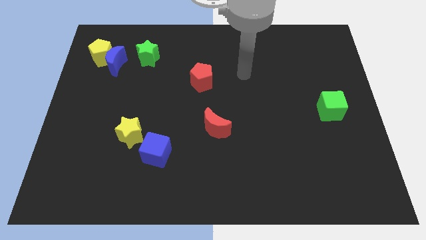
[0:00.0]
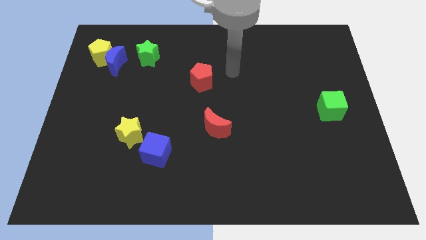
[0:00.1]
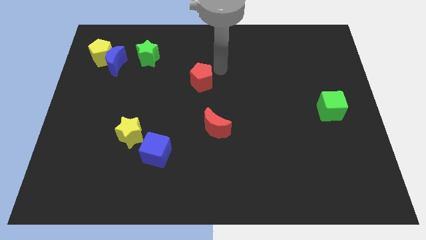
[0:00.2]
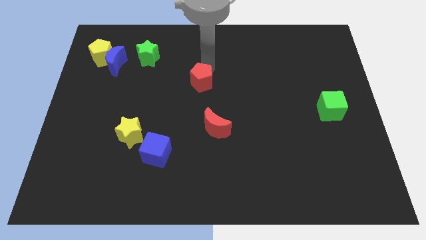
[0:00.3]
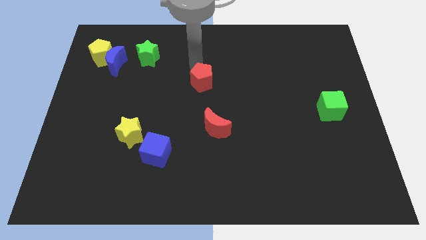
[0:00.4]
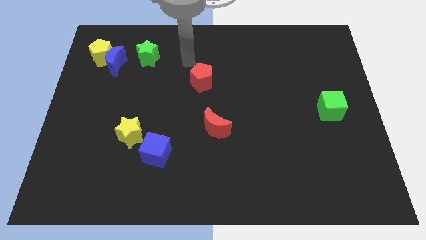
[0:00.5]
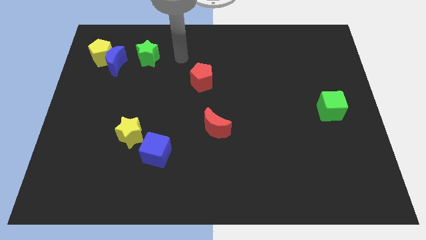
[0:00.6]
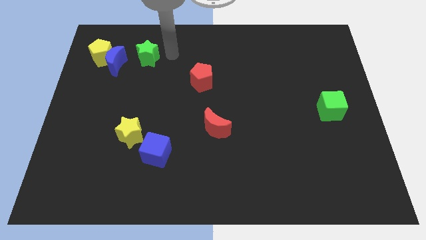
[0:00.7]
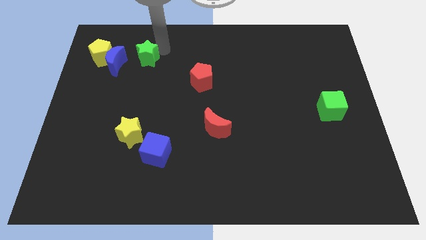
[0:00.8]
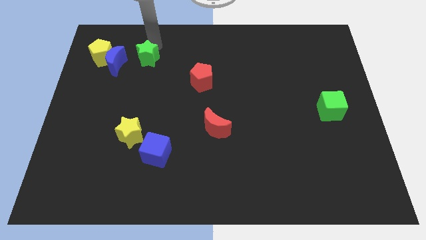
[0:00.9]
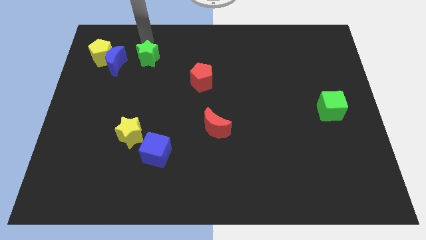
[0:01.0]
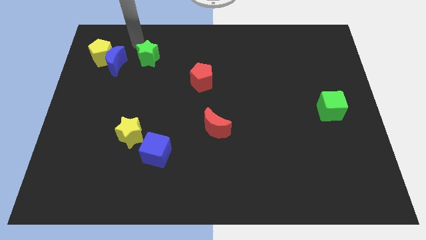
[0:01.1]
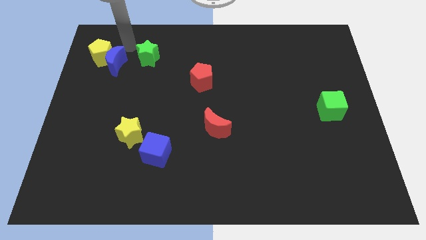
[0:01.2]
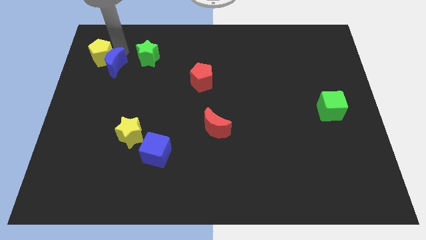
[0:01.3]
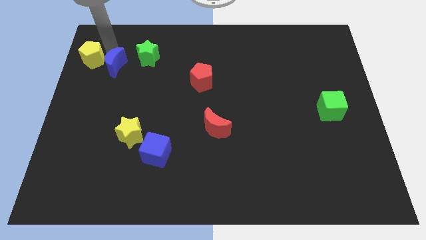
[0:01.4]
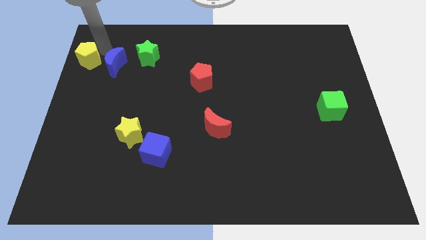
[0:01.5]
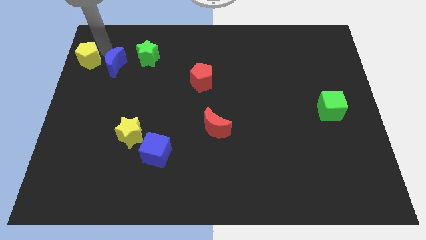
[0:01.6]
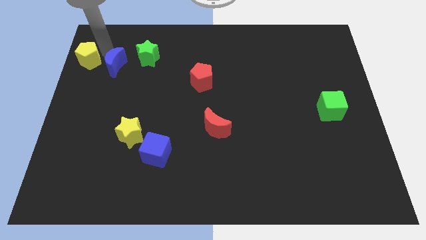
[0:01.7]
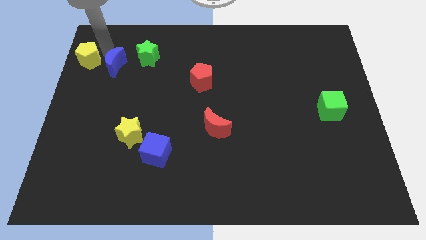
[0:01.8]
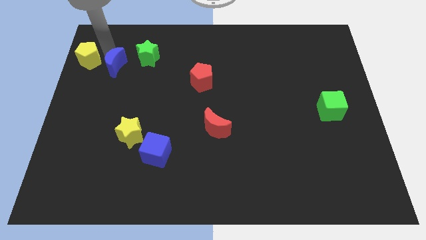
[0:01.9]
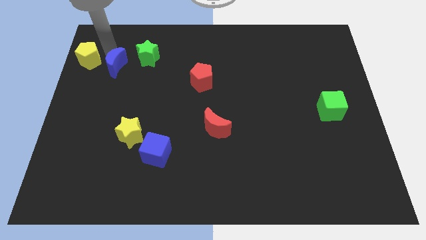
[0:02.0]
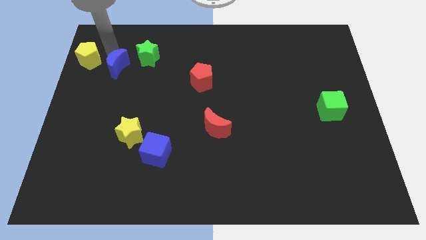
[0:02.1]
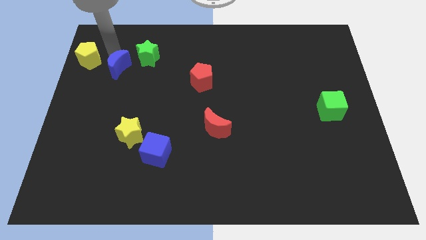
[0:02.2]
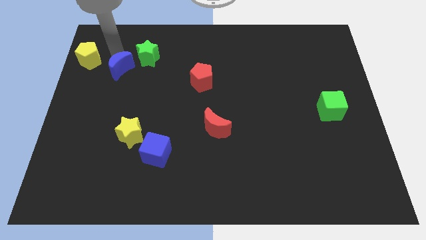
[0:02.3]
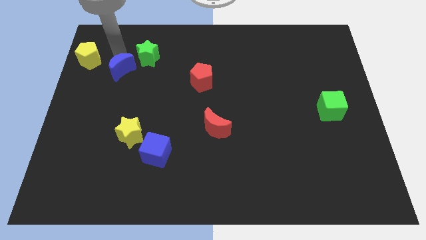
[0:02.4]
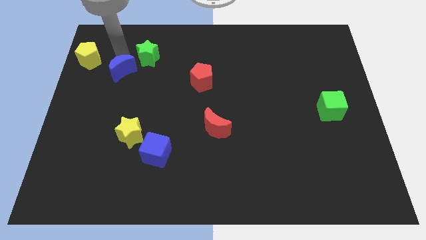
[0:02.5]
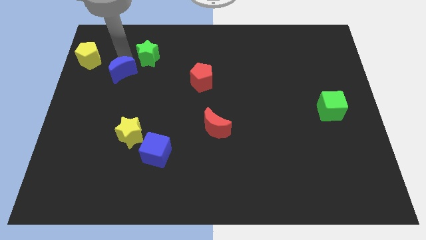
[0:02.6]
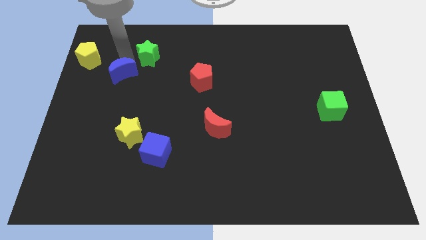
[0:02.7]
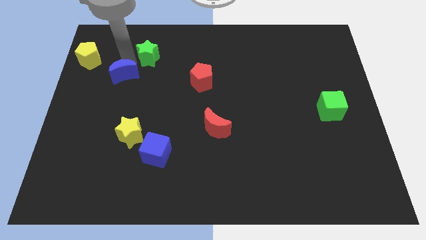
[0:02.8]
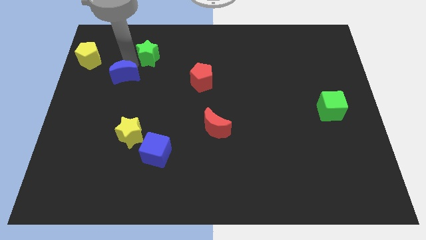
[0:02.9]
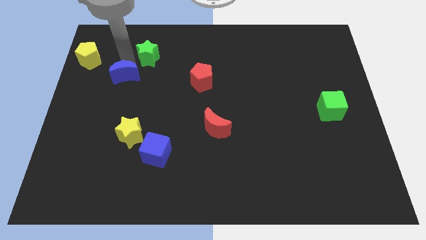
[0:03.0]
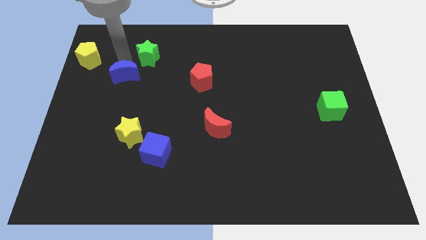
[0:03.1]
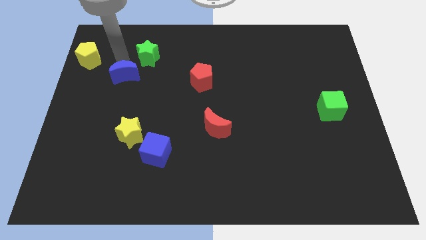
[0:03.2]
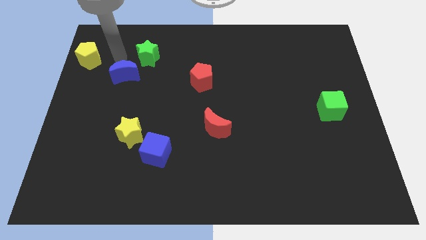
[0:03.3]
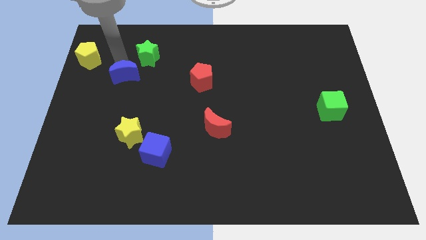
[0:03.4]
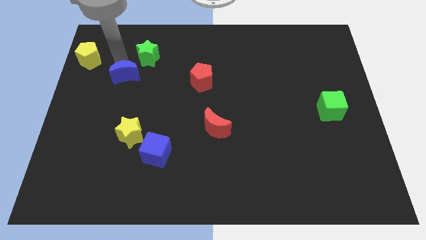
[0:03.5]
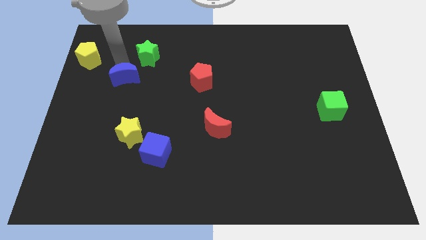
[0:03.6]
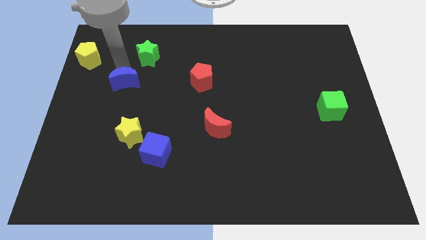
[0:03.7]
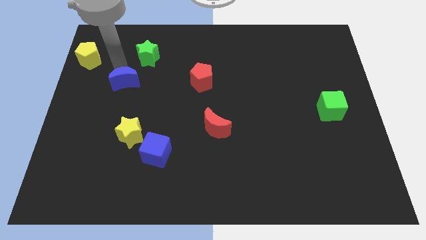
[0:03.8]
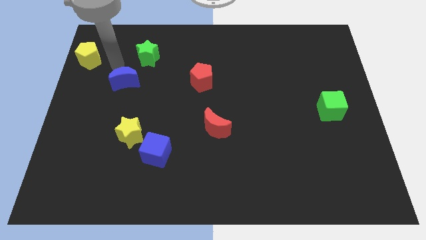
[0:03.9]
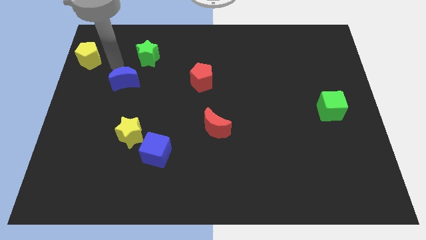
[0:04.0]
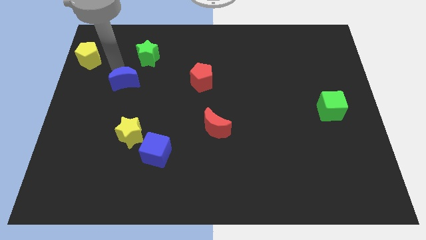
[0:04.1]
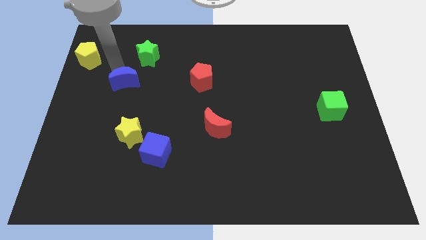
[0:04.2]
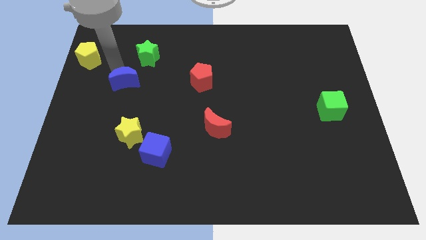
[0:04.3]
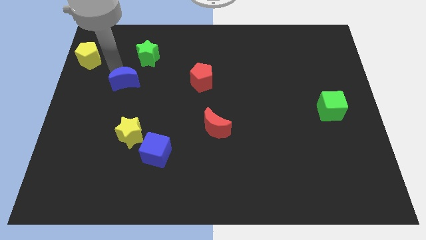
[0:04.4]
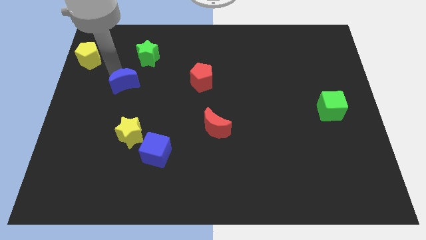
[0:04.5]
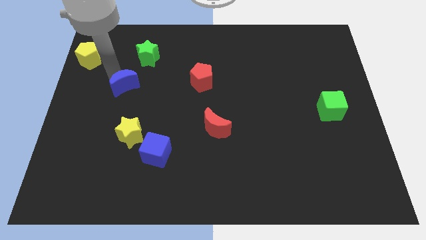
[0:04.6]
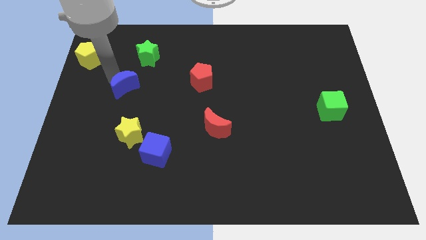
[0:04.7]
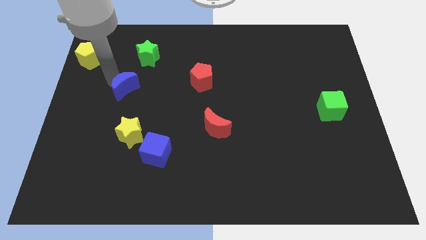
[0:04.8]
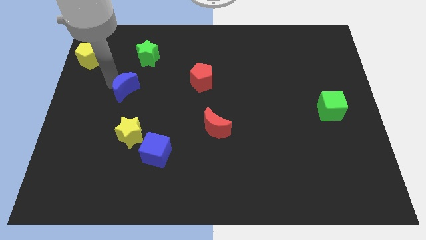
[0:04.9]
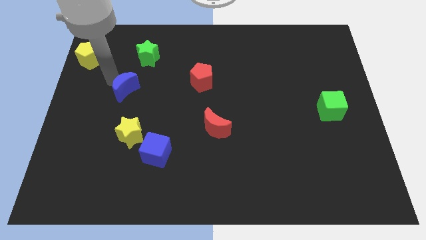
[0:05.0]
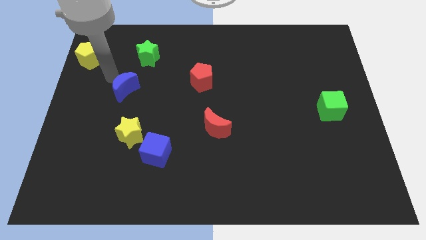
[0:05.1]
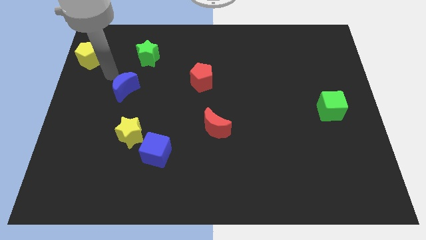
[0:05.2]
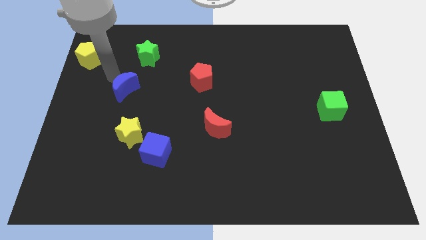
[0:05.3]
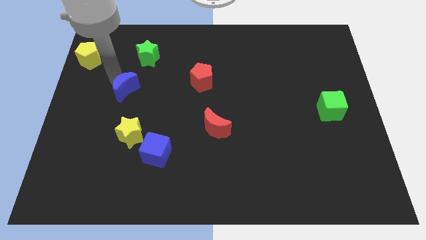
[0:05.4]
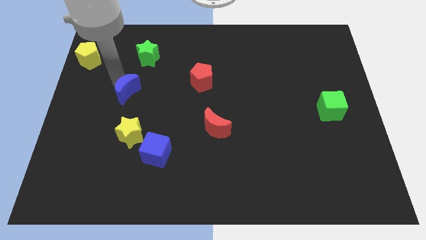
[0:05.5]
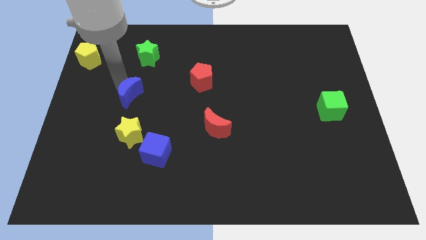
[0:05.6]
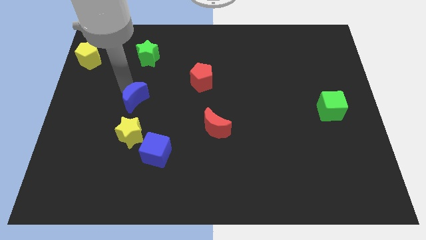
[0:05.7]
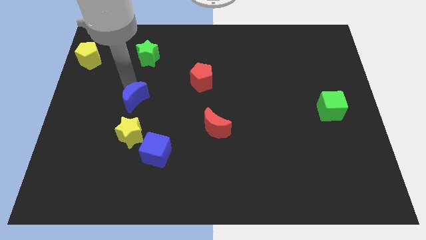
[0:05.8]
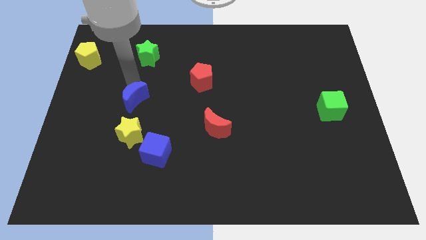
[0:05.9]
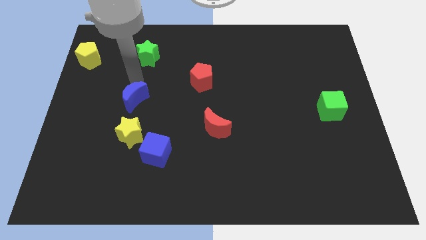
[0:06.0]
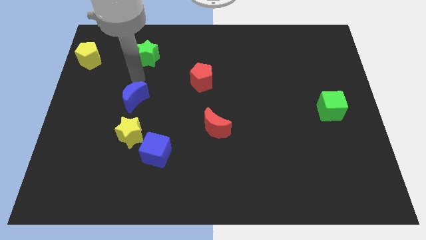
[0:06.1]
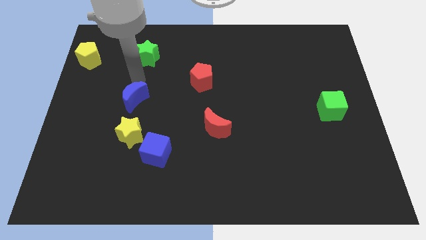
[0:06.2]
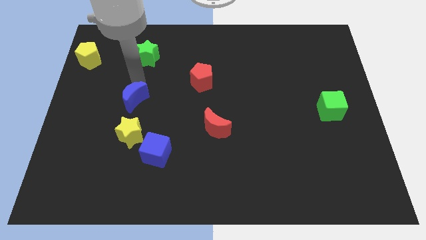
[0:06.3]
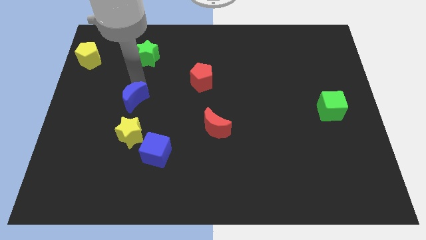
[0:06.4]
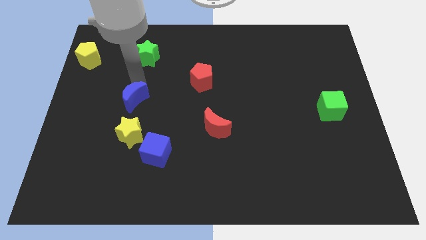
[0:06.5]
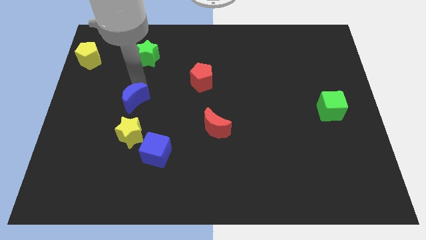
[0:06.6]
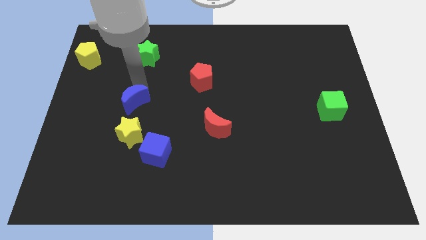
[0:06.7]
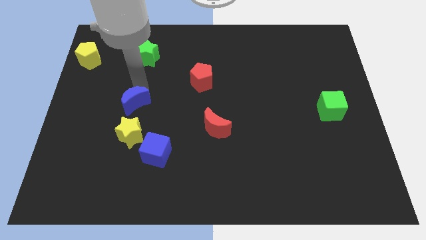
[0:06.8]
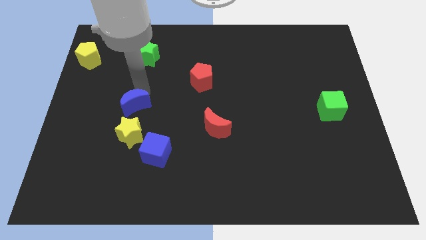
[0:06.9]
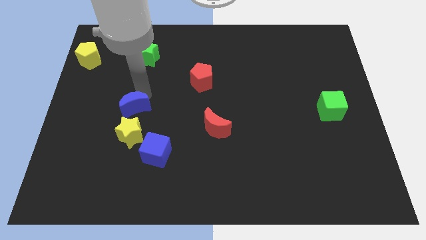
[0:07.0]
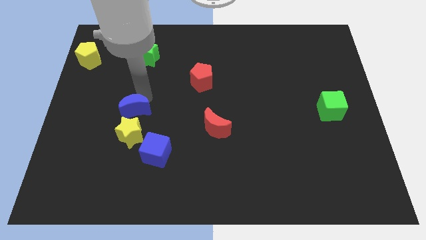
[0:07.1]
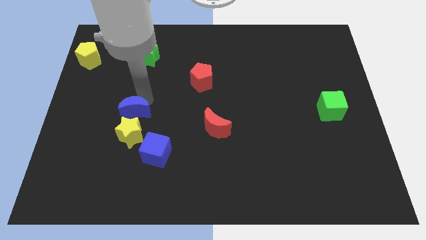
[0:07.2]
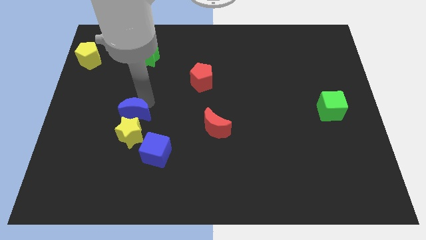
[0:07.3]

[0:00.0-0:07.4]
put the blue moon to the yellow star
